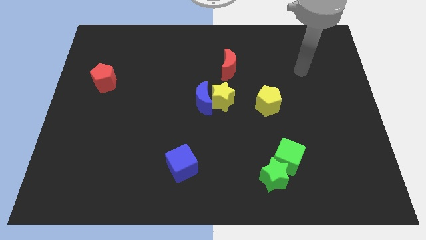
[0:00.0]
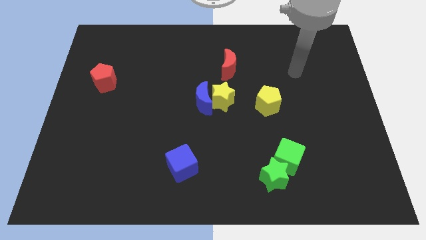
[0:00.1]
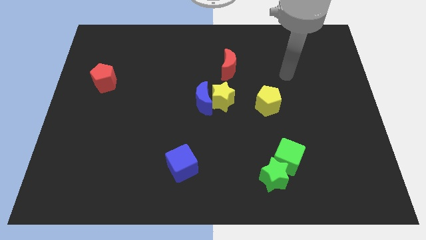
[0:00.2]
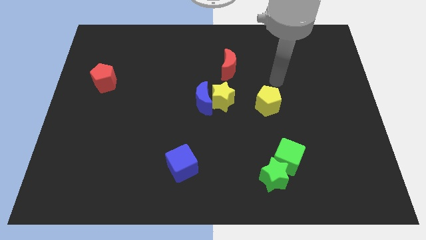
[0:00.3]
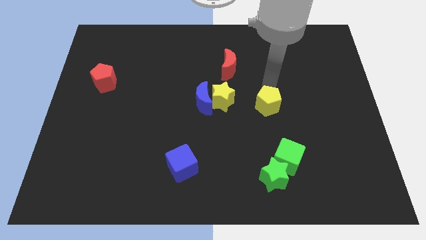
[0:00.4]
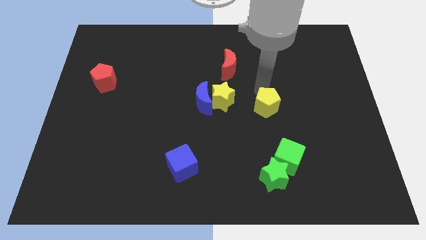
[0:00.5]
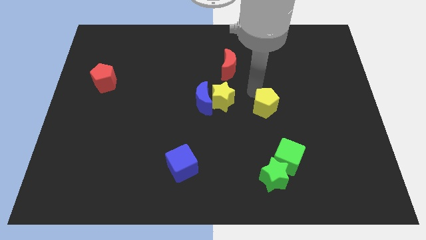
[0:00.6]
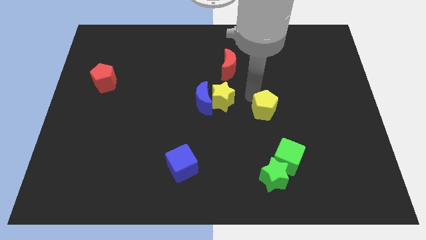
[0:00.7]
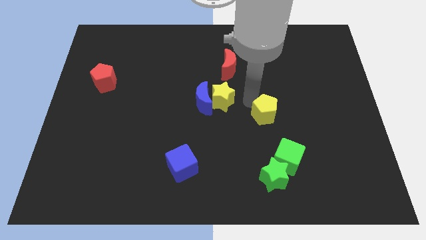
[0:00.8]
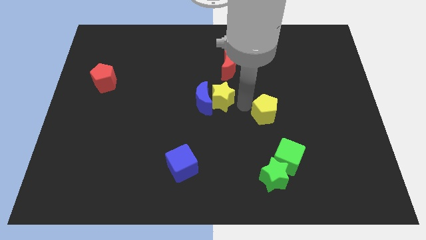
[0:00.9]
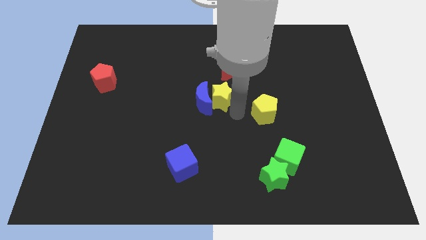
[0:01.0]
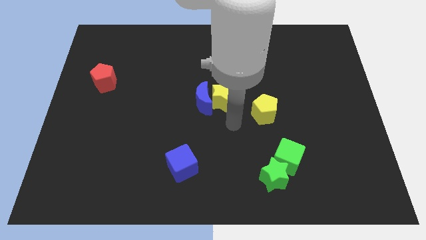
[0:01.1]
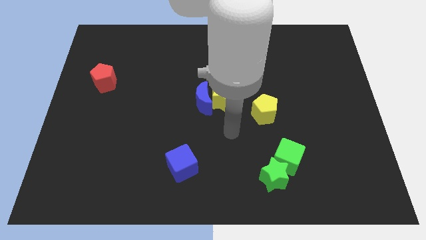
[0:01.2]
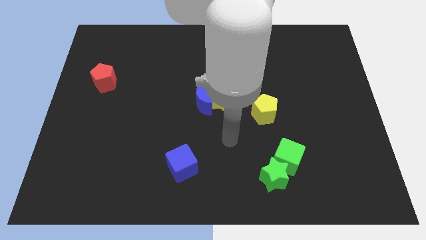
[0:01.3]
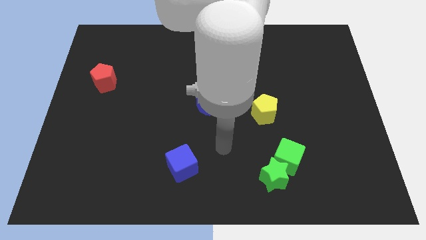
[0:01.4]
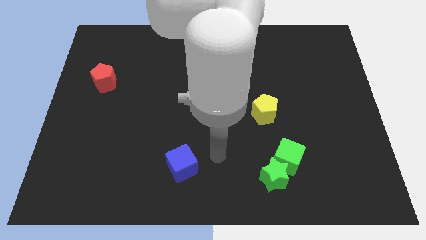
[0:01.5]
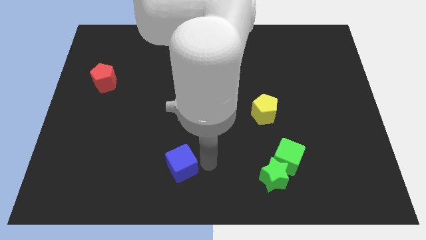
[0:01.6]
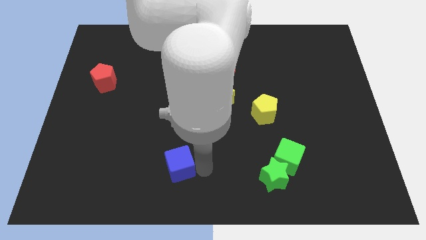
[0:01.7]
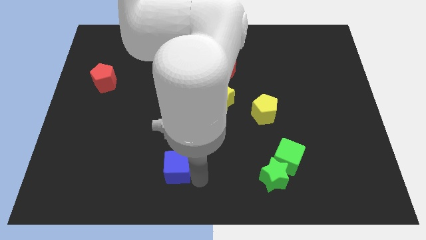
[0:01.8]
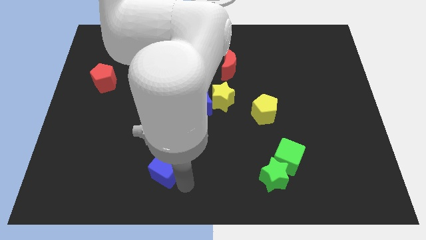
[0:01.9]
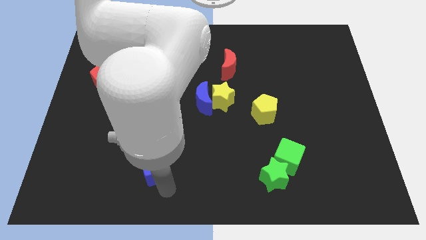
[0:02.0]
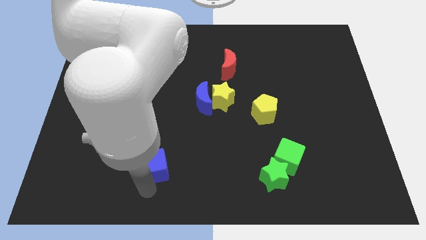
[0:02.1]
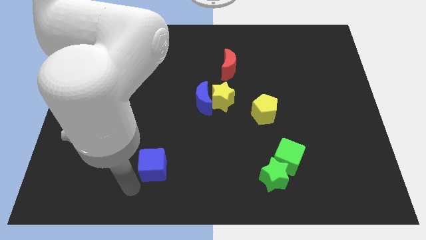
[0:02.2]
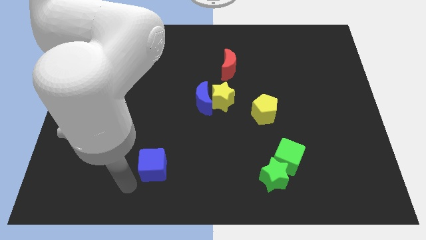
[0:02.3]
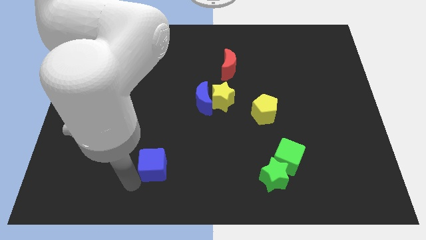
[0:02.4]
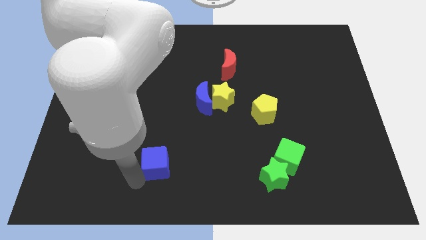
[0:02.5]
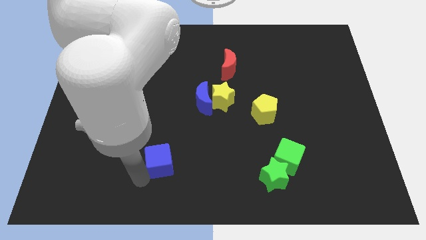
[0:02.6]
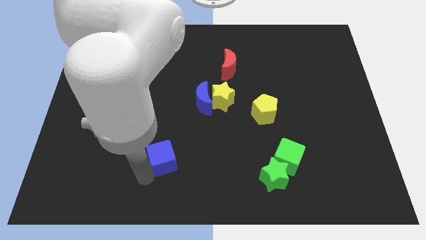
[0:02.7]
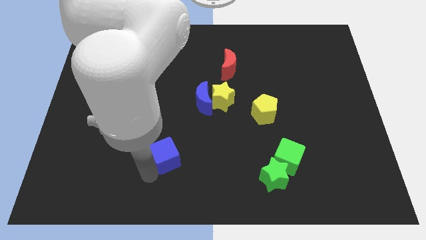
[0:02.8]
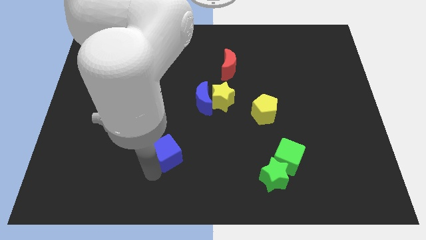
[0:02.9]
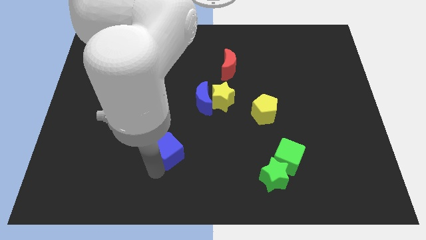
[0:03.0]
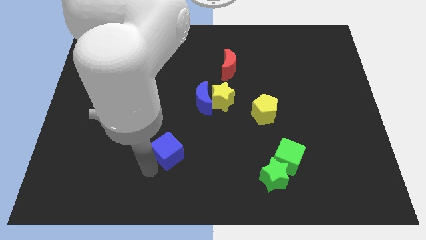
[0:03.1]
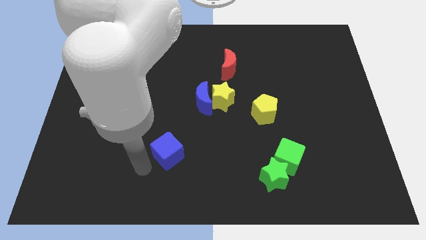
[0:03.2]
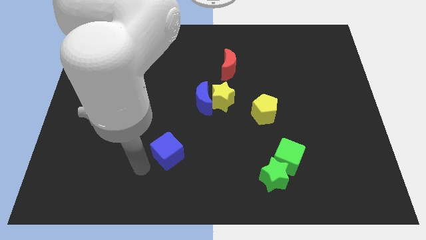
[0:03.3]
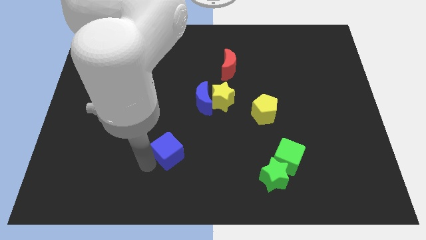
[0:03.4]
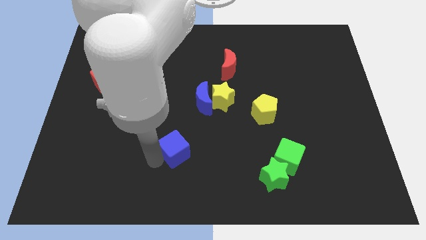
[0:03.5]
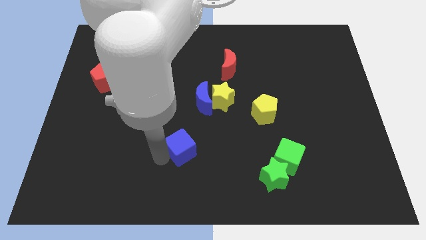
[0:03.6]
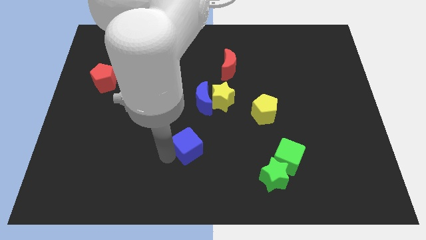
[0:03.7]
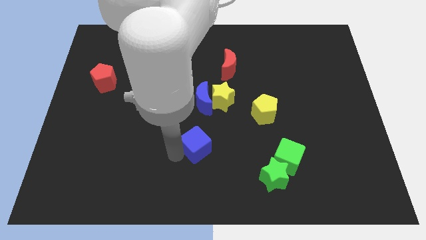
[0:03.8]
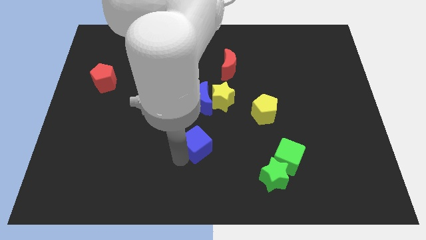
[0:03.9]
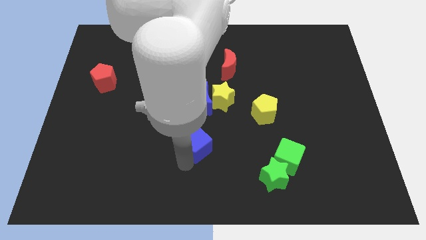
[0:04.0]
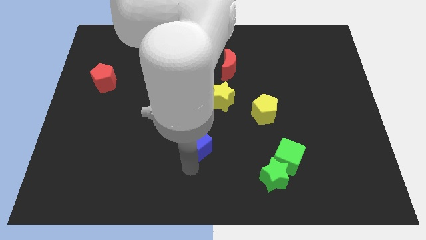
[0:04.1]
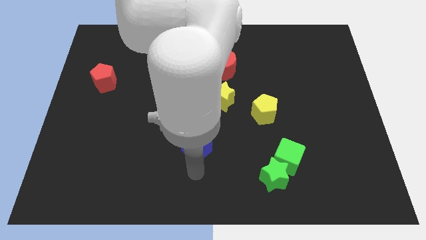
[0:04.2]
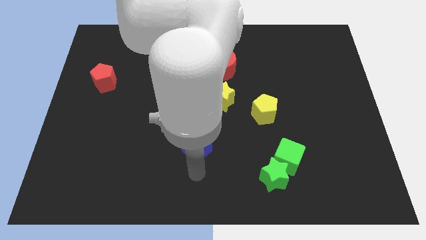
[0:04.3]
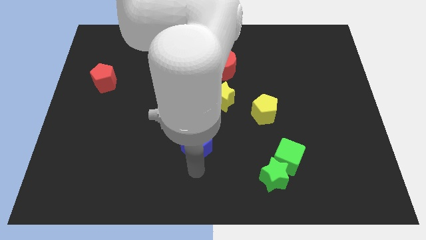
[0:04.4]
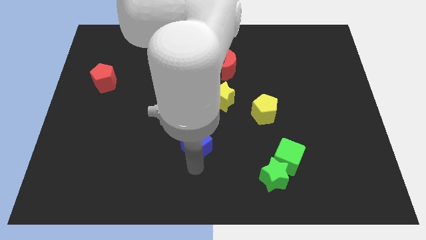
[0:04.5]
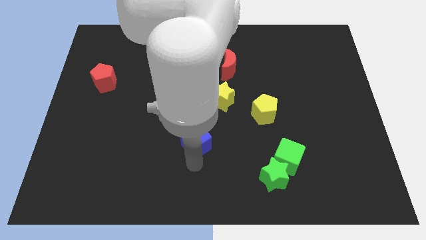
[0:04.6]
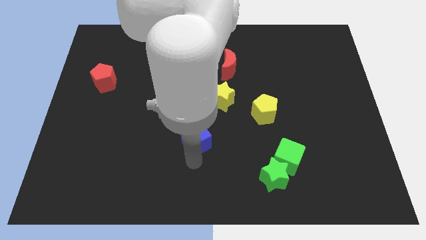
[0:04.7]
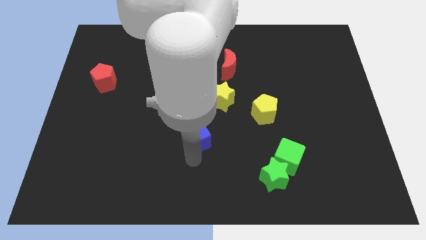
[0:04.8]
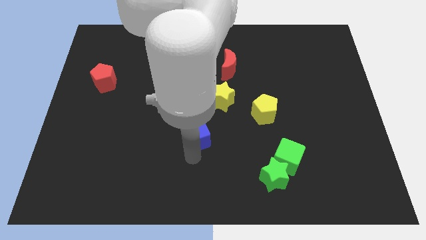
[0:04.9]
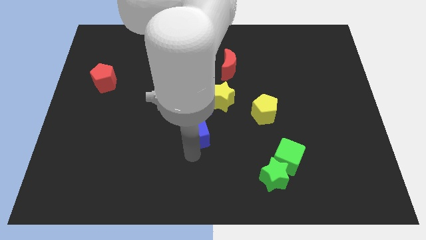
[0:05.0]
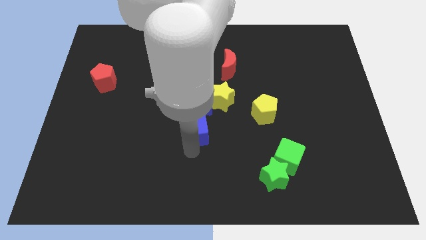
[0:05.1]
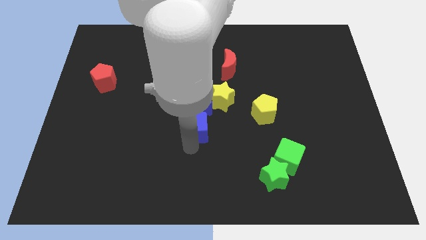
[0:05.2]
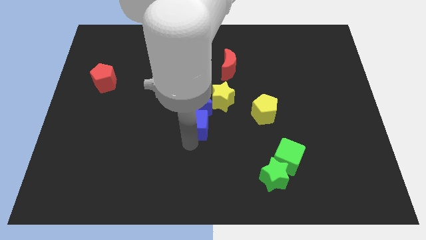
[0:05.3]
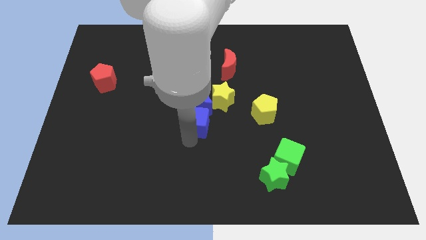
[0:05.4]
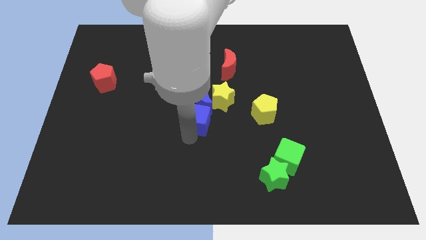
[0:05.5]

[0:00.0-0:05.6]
slide the blue cube towards the blue moon

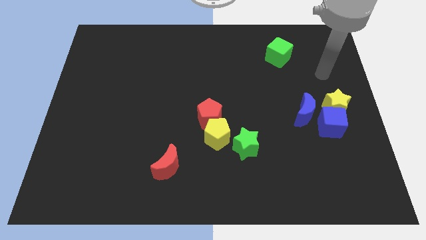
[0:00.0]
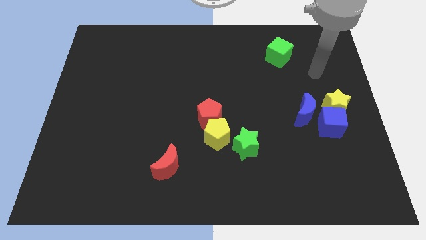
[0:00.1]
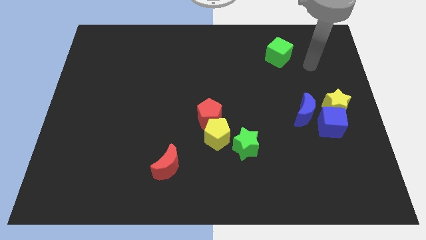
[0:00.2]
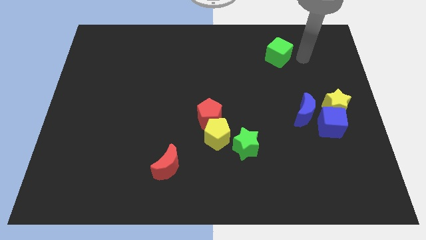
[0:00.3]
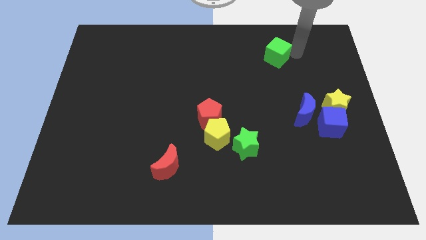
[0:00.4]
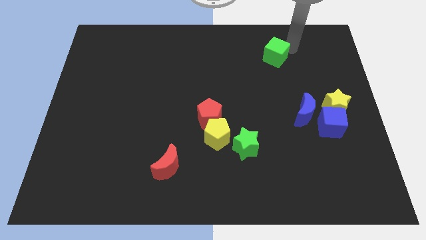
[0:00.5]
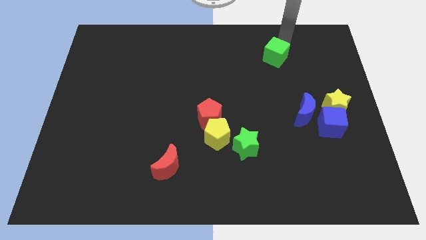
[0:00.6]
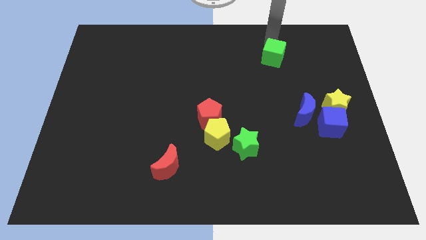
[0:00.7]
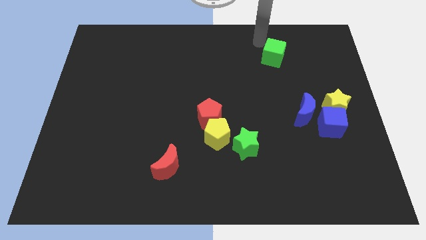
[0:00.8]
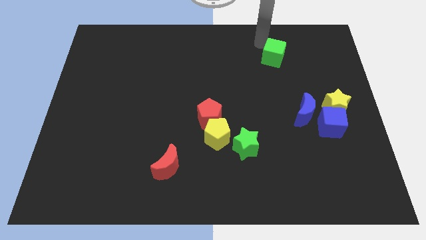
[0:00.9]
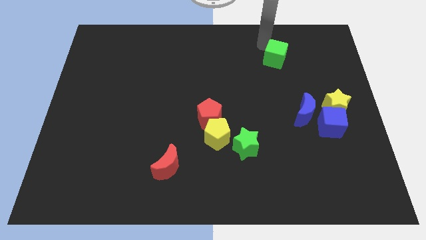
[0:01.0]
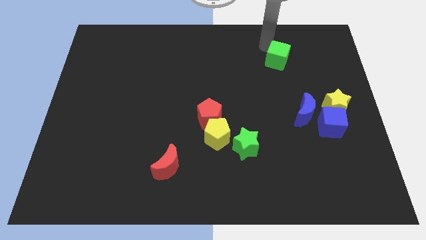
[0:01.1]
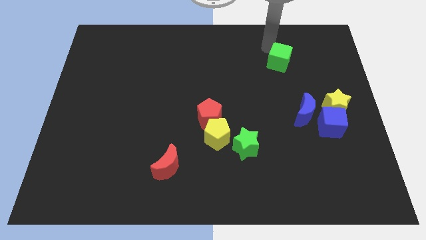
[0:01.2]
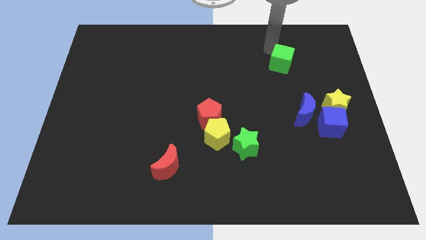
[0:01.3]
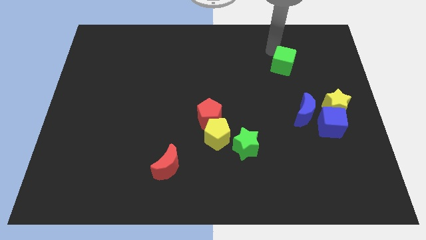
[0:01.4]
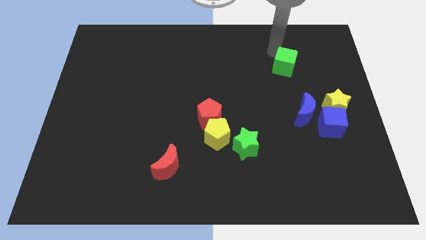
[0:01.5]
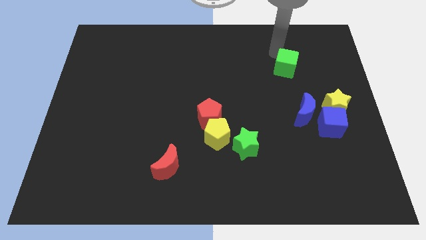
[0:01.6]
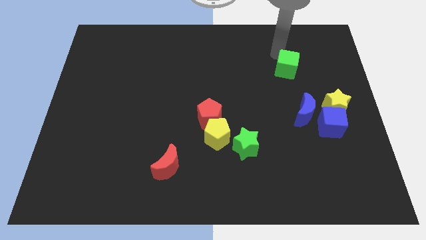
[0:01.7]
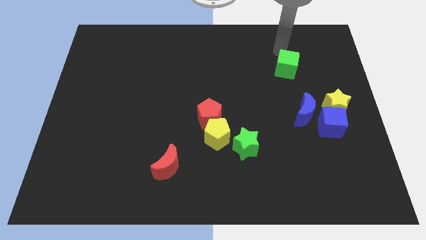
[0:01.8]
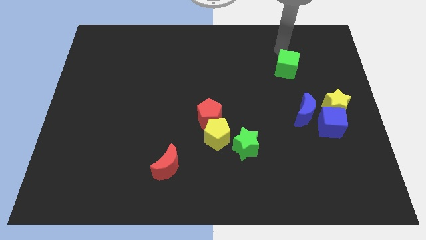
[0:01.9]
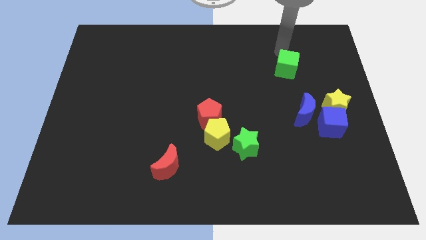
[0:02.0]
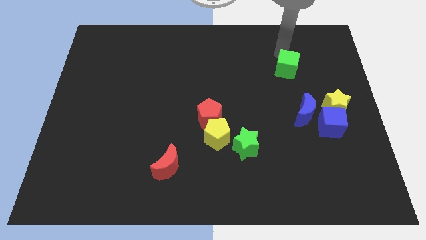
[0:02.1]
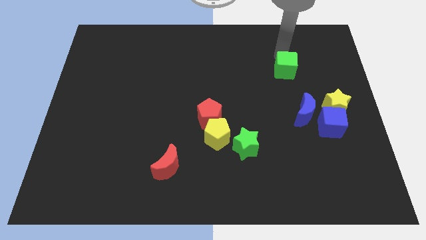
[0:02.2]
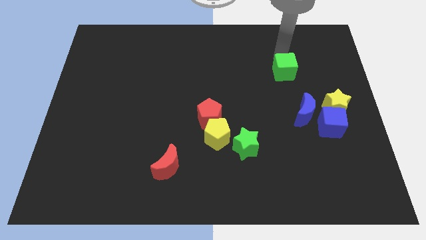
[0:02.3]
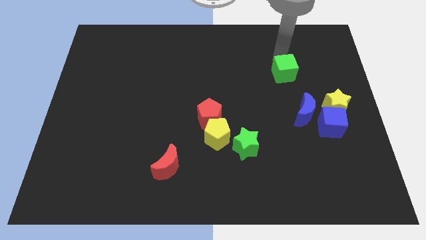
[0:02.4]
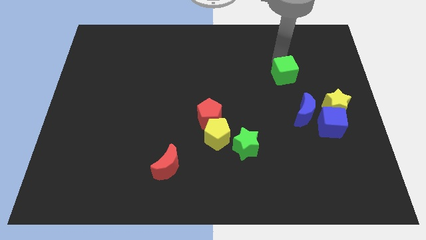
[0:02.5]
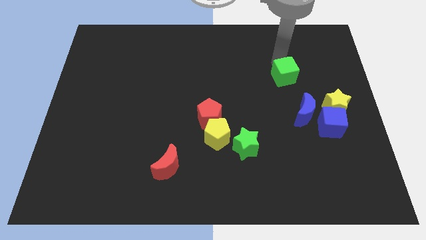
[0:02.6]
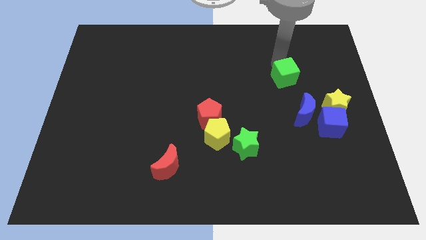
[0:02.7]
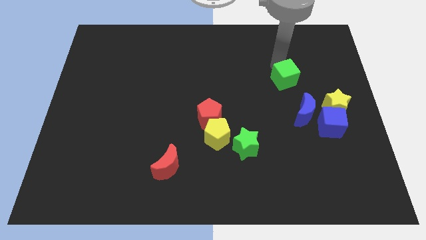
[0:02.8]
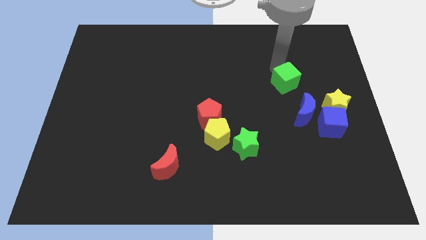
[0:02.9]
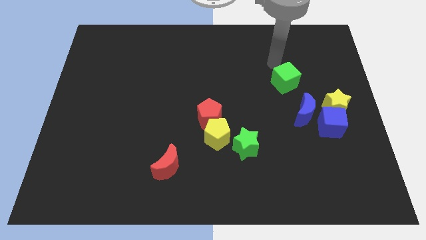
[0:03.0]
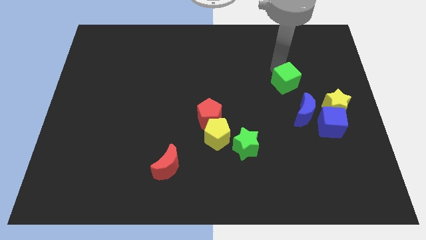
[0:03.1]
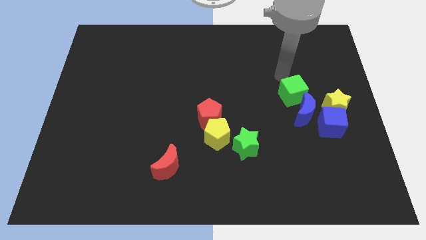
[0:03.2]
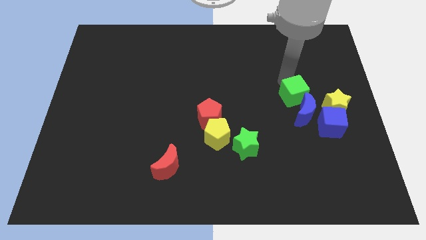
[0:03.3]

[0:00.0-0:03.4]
put the green cube to the blue moon
